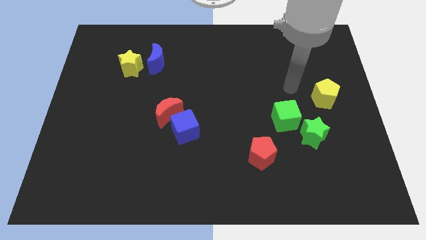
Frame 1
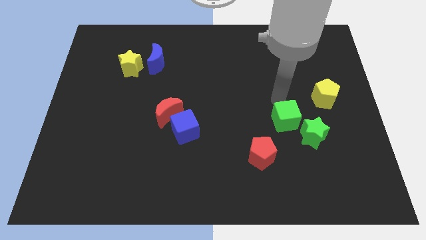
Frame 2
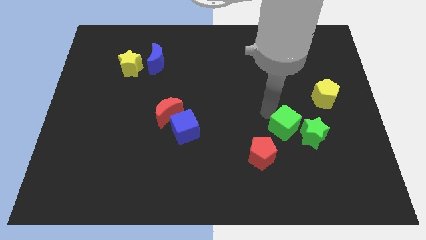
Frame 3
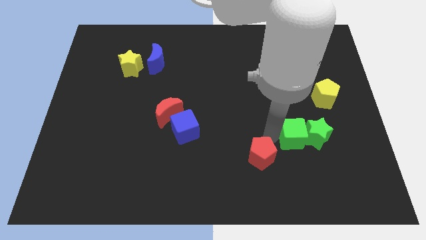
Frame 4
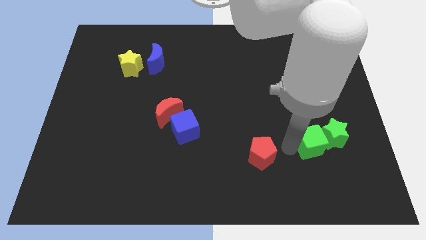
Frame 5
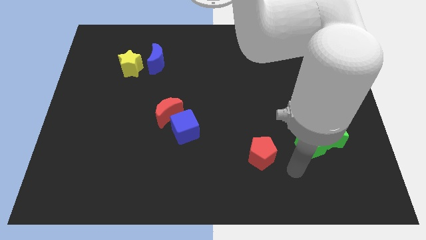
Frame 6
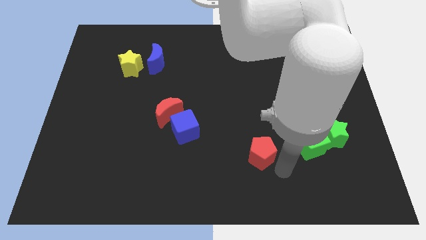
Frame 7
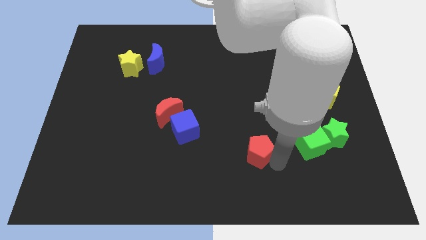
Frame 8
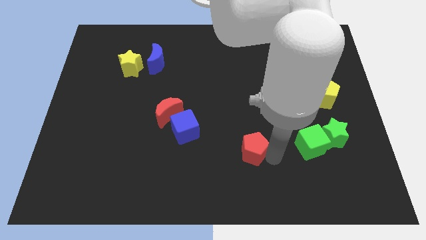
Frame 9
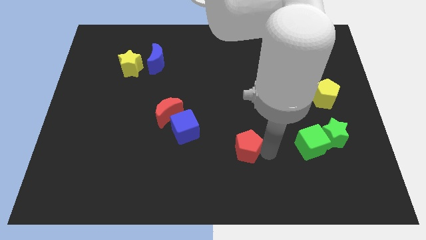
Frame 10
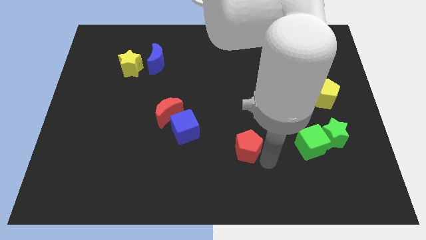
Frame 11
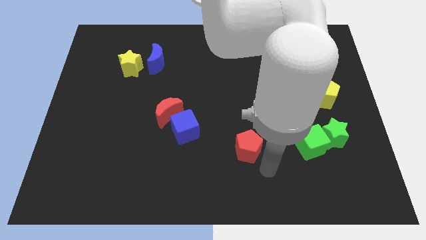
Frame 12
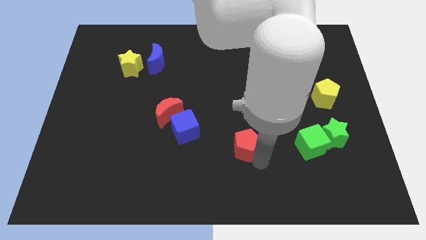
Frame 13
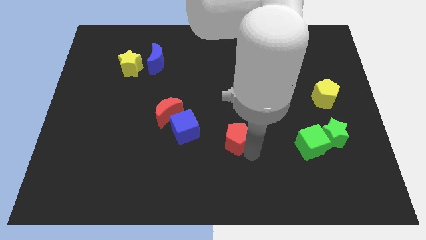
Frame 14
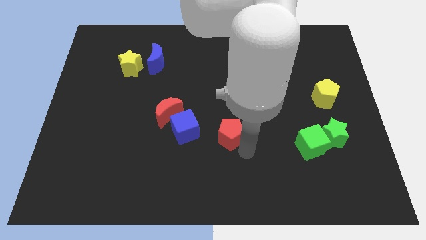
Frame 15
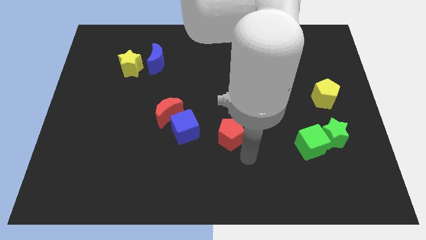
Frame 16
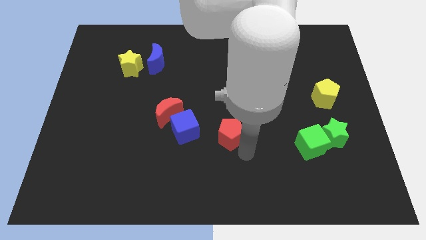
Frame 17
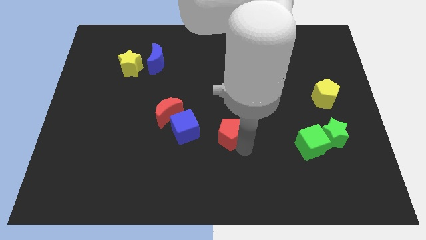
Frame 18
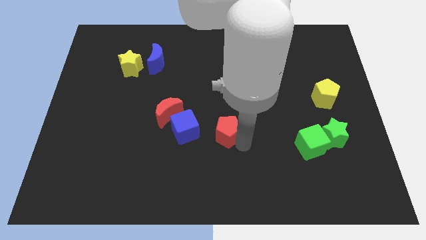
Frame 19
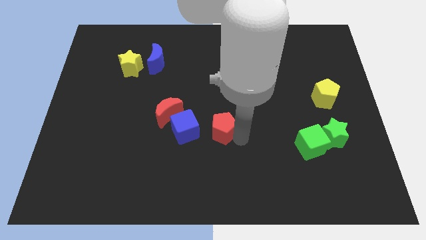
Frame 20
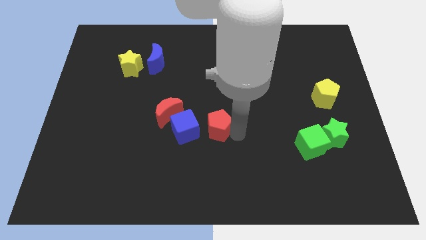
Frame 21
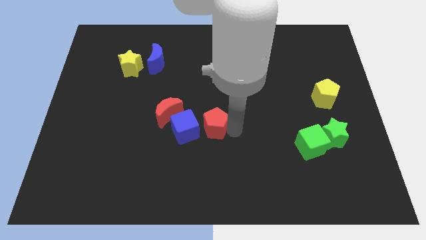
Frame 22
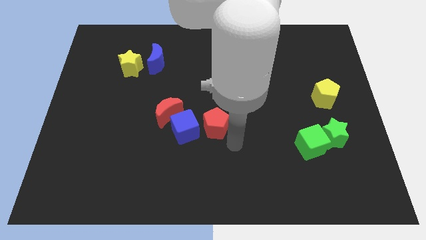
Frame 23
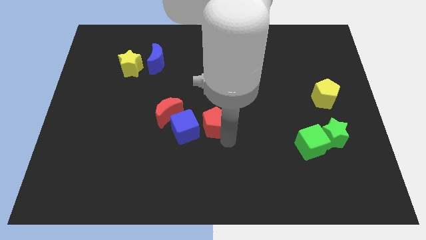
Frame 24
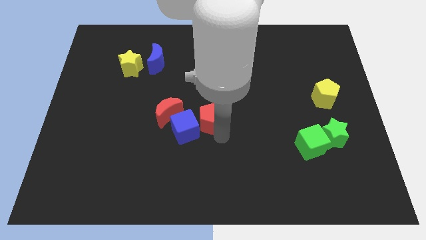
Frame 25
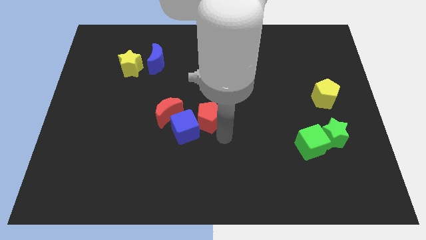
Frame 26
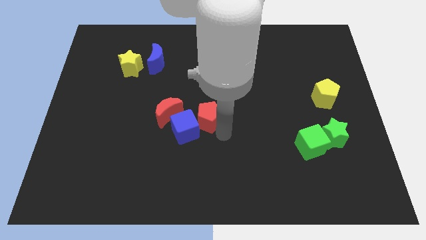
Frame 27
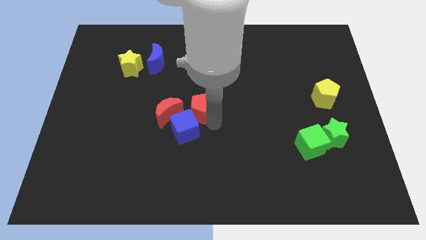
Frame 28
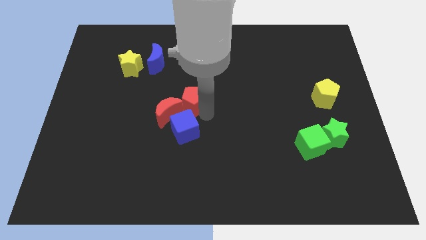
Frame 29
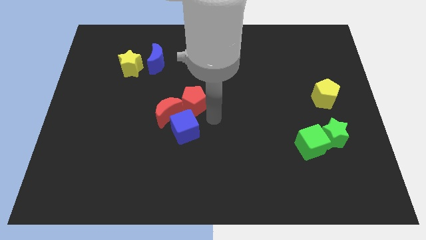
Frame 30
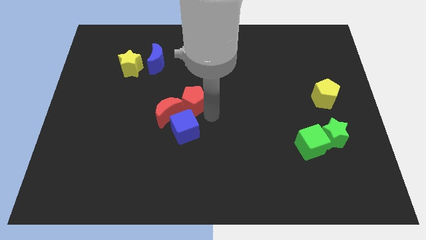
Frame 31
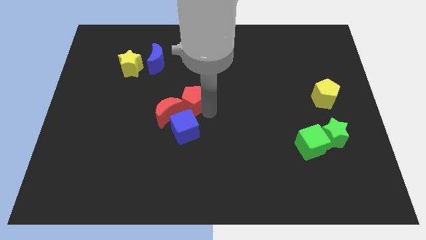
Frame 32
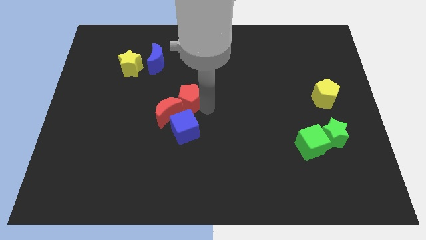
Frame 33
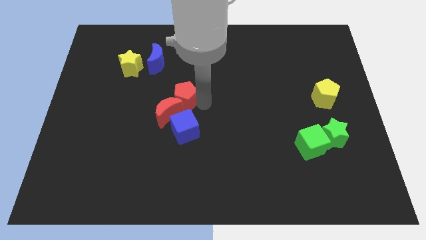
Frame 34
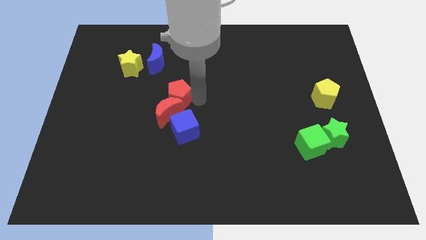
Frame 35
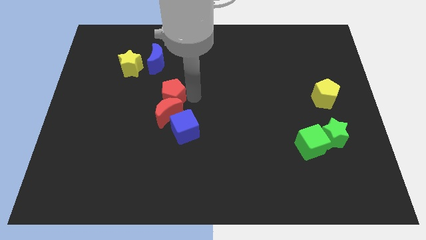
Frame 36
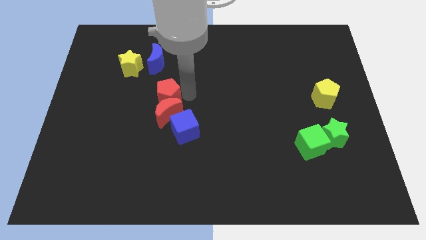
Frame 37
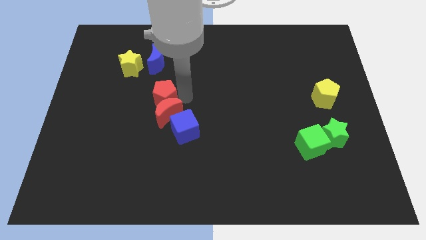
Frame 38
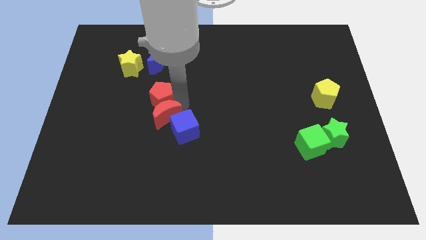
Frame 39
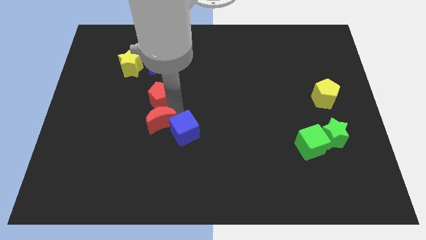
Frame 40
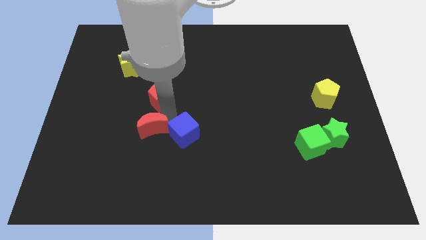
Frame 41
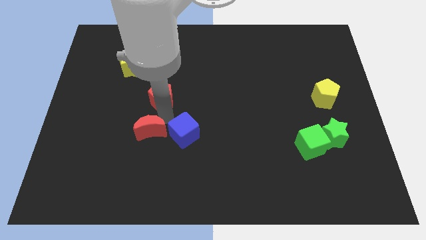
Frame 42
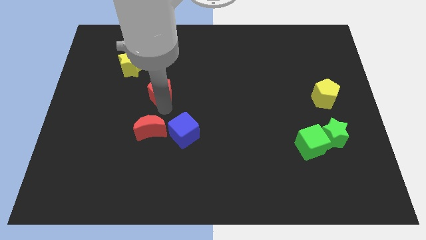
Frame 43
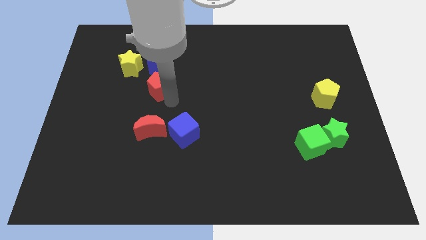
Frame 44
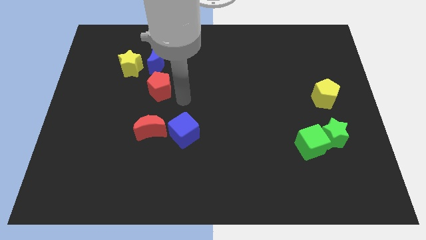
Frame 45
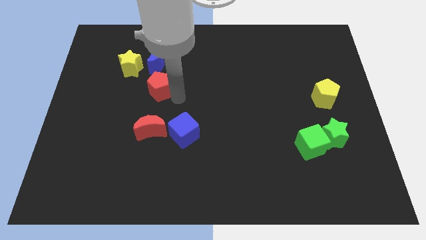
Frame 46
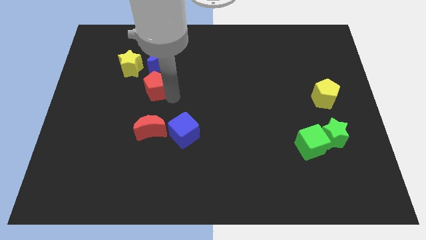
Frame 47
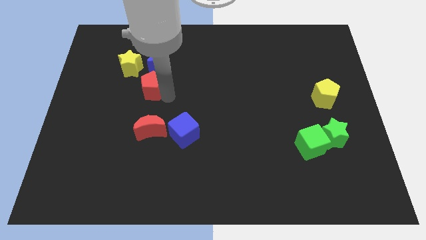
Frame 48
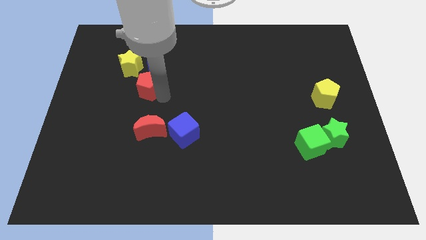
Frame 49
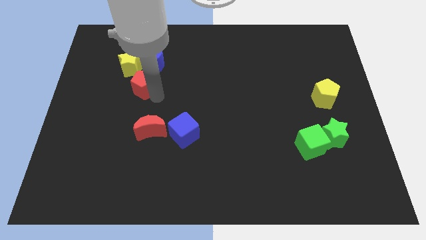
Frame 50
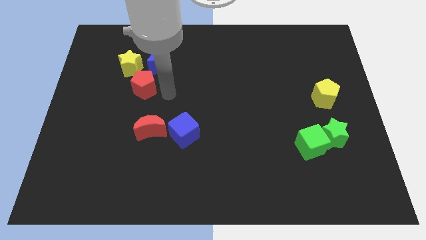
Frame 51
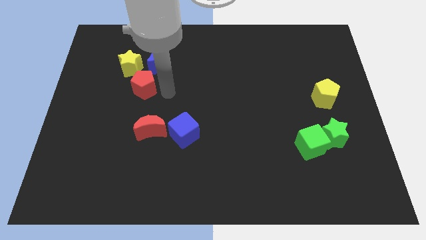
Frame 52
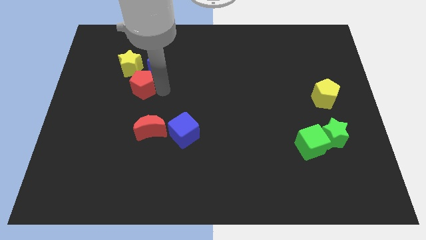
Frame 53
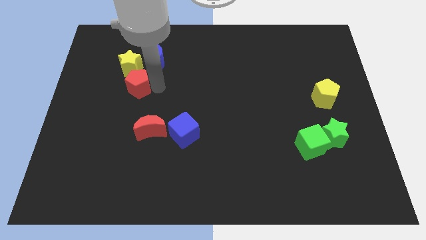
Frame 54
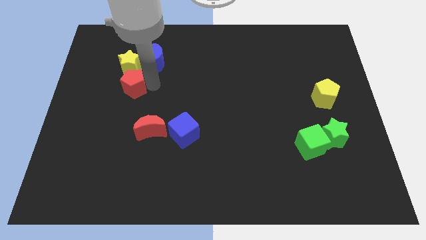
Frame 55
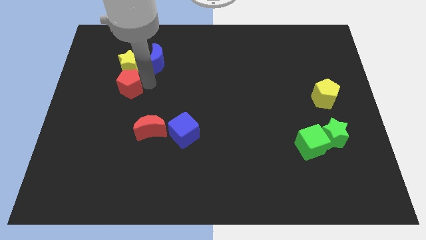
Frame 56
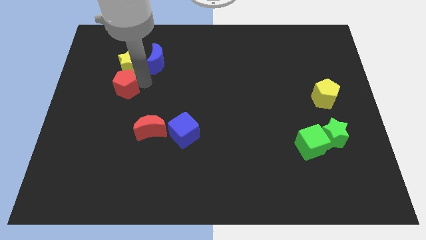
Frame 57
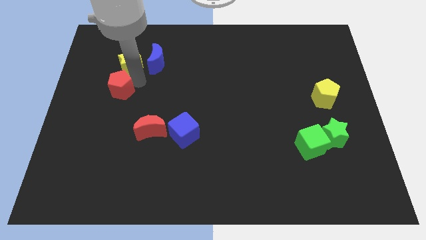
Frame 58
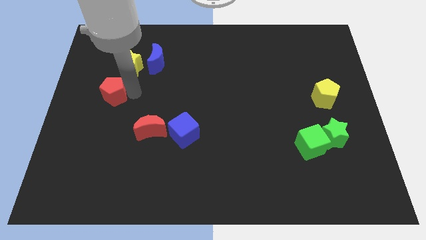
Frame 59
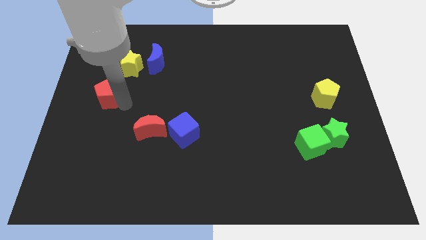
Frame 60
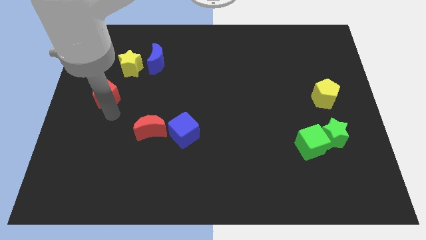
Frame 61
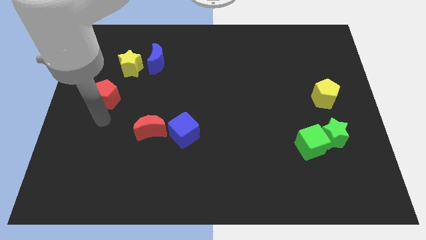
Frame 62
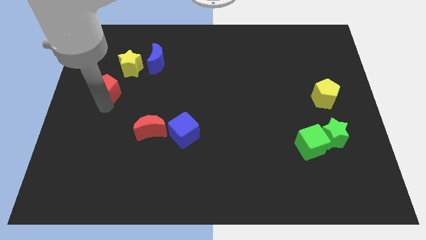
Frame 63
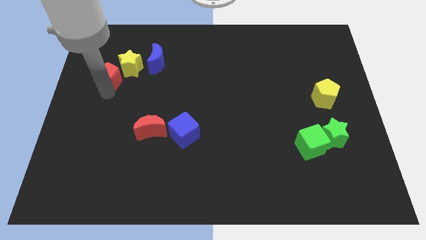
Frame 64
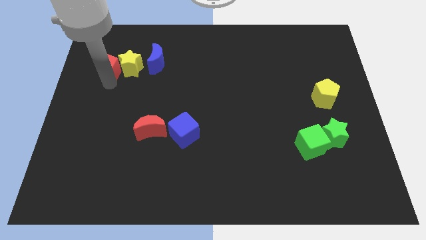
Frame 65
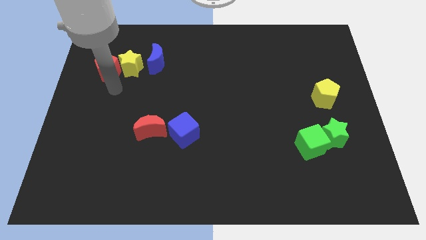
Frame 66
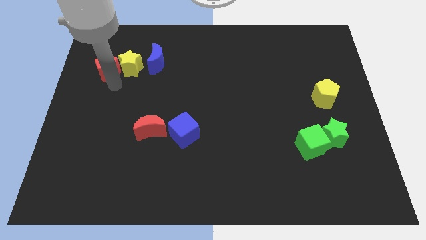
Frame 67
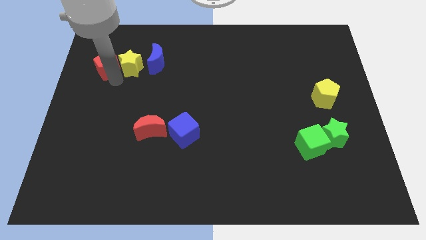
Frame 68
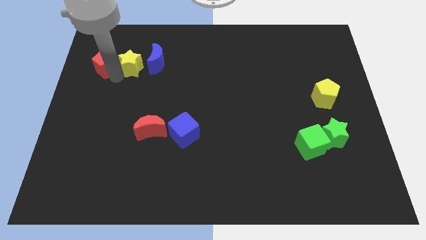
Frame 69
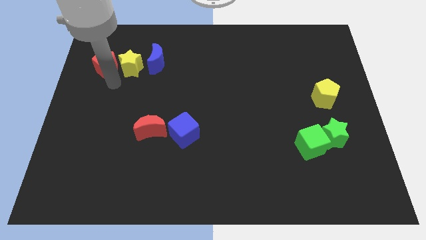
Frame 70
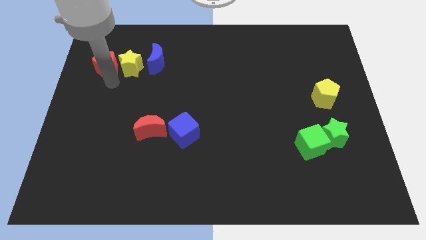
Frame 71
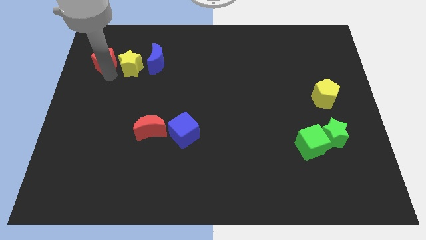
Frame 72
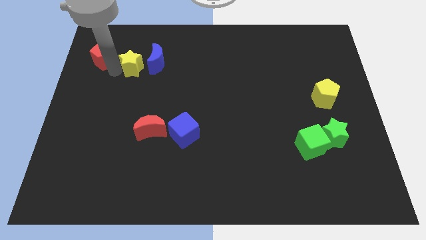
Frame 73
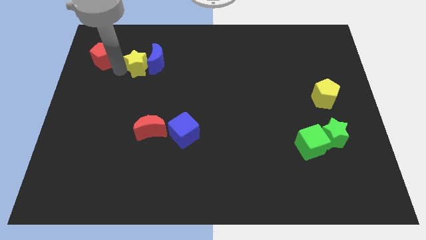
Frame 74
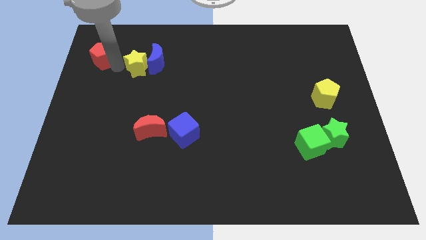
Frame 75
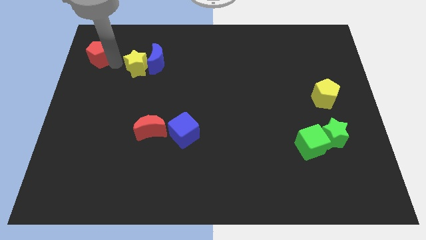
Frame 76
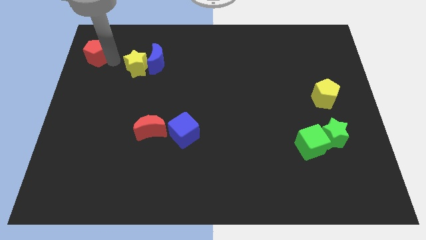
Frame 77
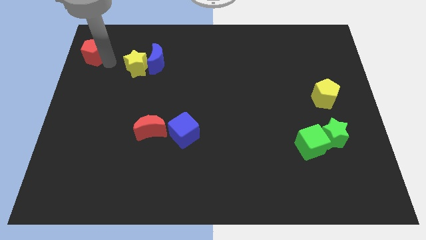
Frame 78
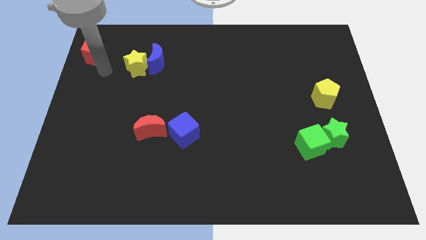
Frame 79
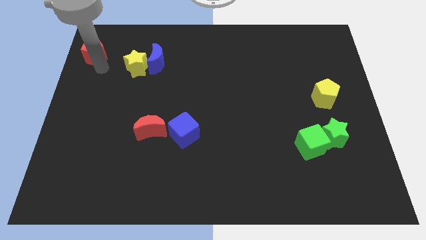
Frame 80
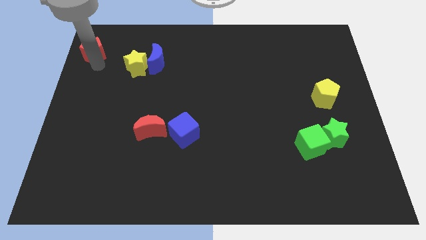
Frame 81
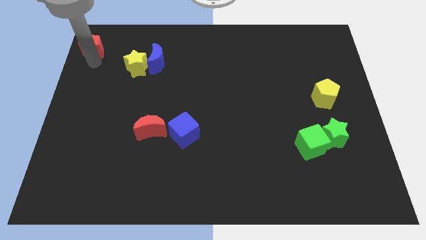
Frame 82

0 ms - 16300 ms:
slide the red pentagon to the top left
